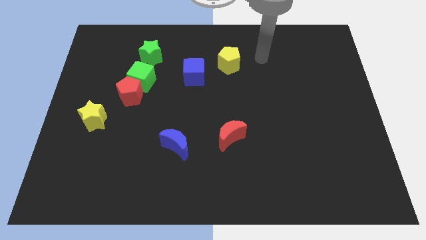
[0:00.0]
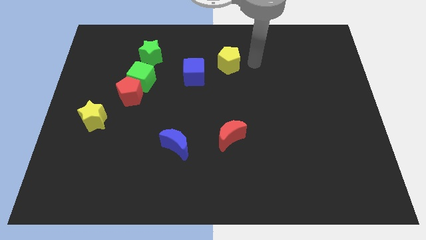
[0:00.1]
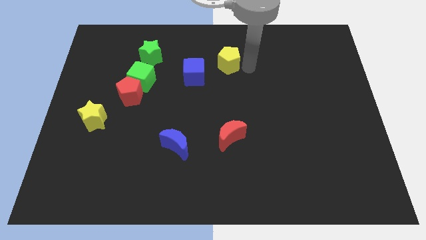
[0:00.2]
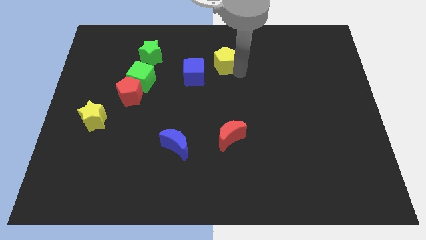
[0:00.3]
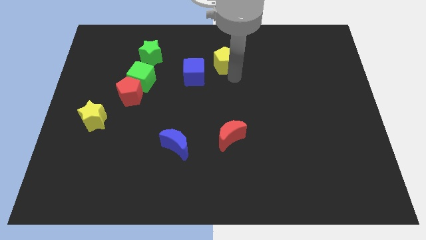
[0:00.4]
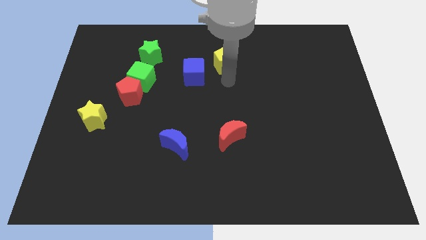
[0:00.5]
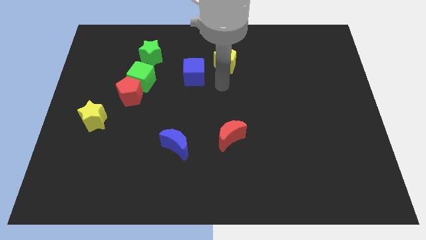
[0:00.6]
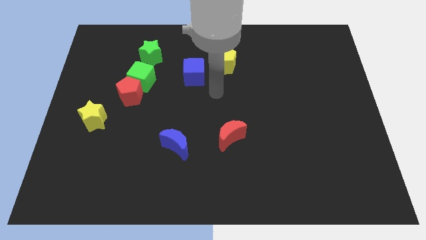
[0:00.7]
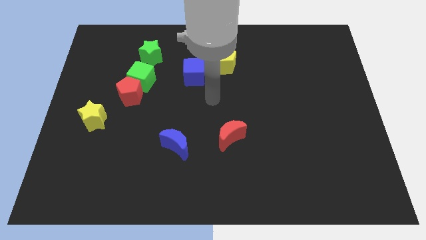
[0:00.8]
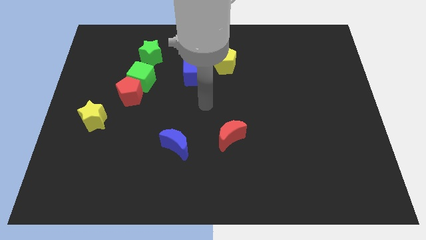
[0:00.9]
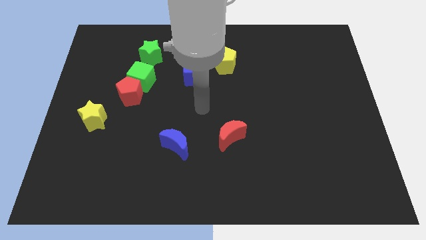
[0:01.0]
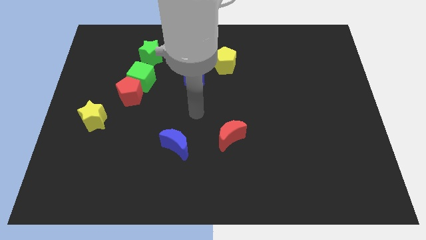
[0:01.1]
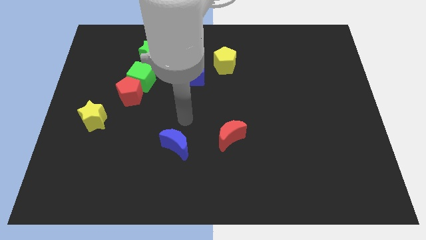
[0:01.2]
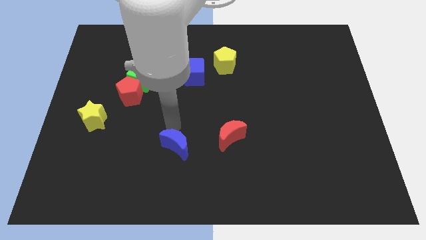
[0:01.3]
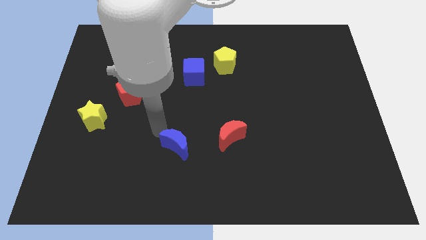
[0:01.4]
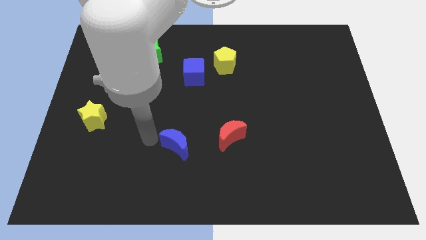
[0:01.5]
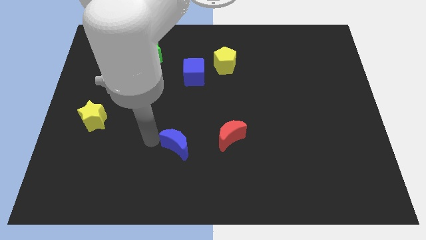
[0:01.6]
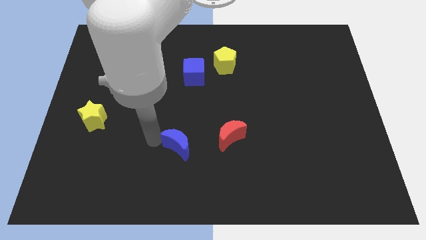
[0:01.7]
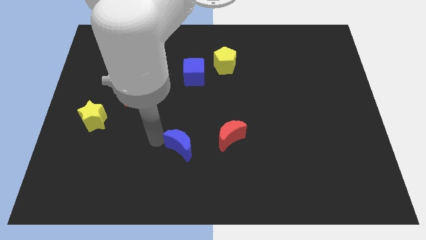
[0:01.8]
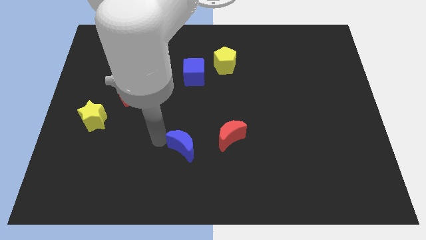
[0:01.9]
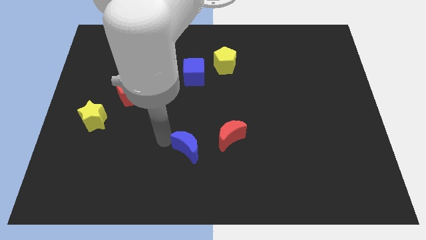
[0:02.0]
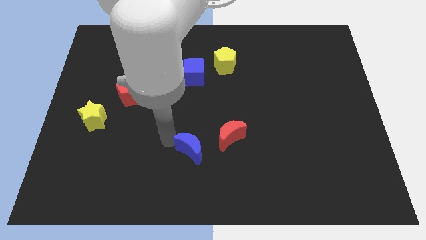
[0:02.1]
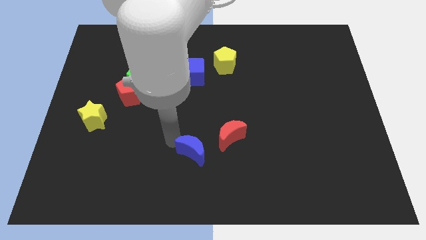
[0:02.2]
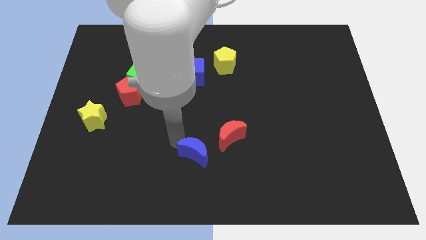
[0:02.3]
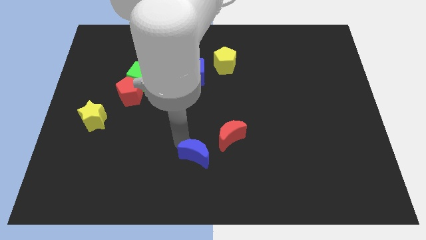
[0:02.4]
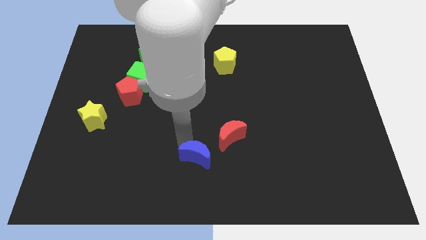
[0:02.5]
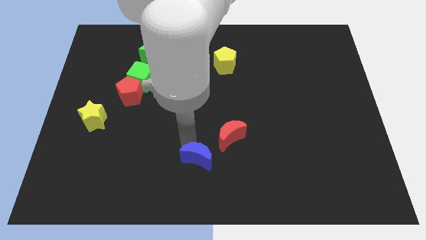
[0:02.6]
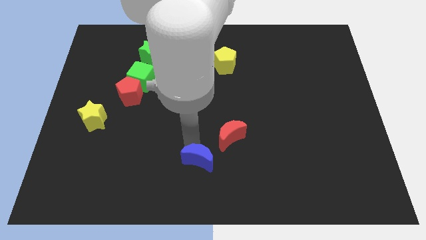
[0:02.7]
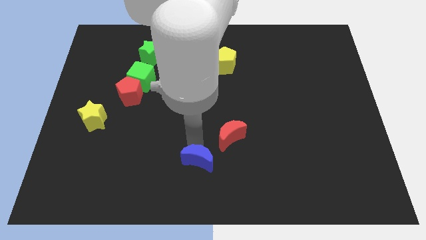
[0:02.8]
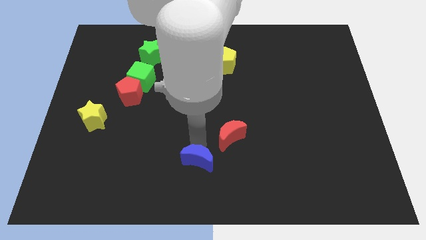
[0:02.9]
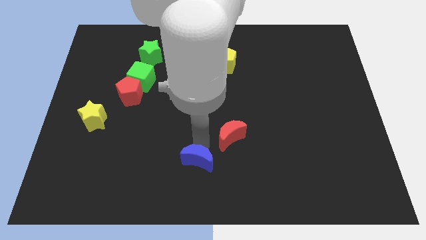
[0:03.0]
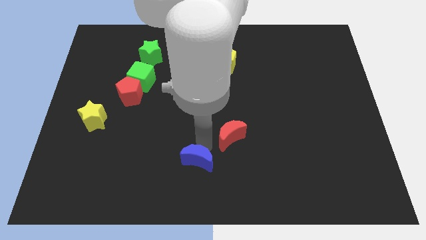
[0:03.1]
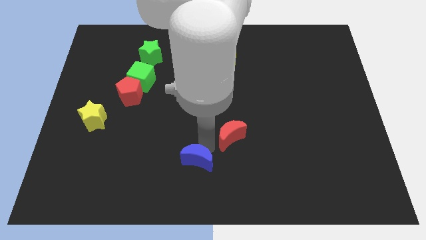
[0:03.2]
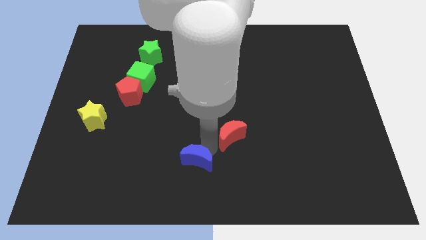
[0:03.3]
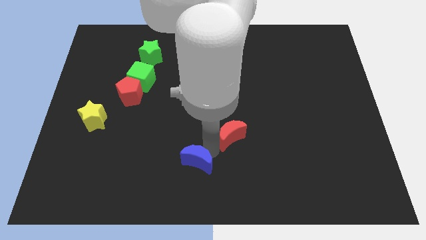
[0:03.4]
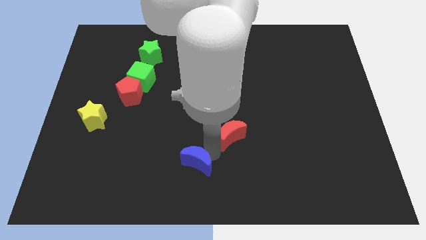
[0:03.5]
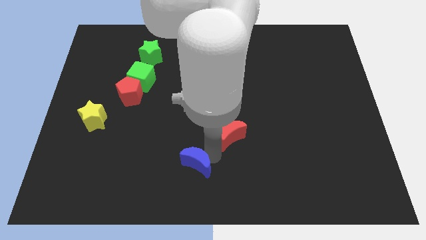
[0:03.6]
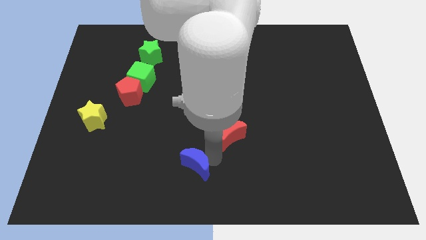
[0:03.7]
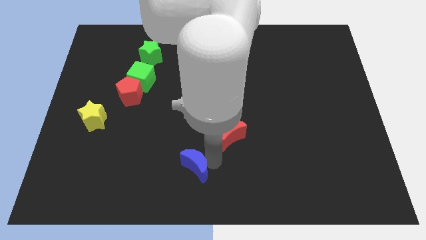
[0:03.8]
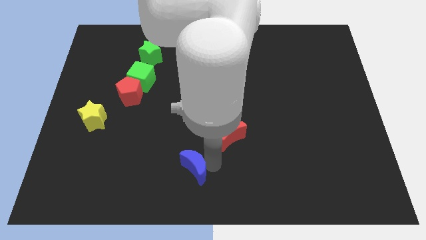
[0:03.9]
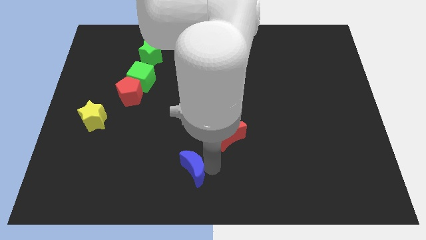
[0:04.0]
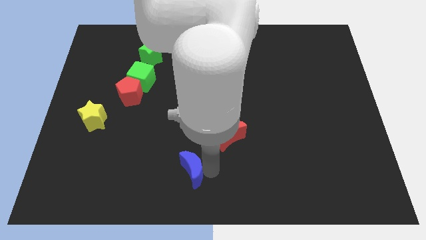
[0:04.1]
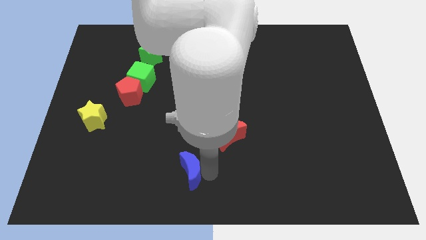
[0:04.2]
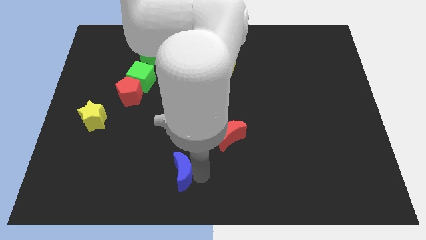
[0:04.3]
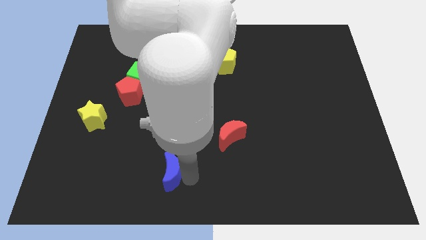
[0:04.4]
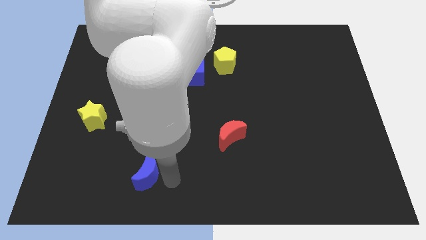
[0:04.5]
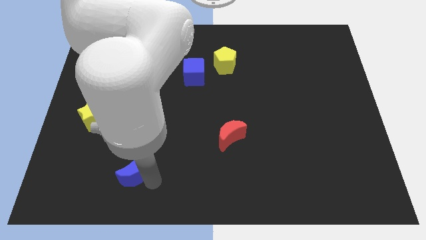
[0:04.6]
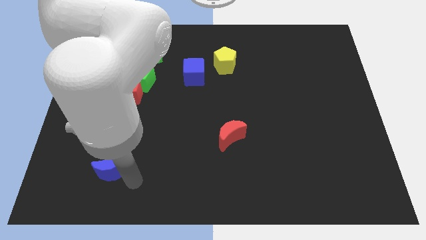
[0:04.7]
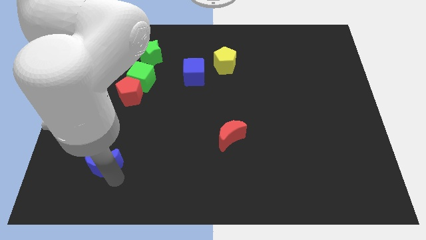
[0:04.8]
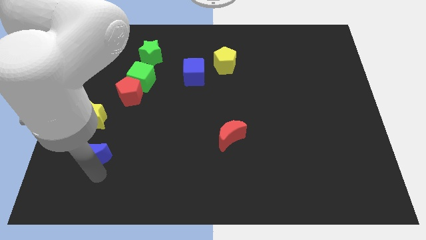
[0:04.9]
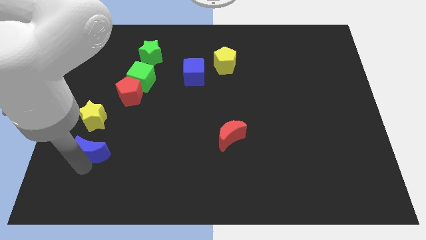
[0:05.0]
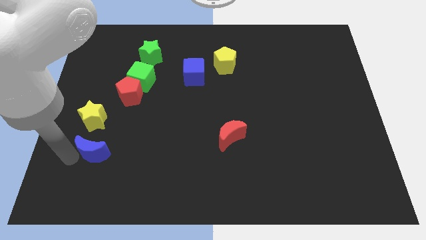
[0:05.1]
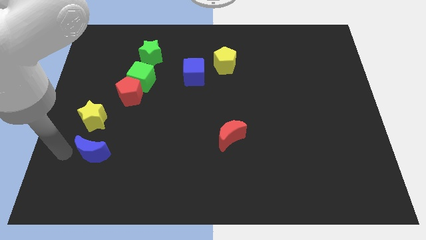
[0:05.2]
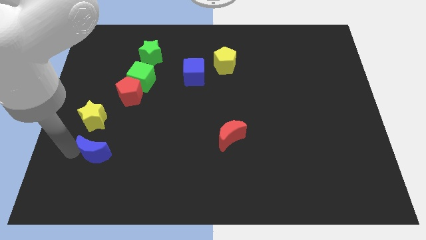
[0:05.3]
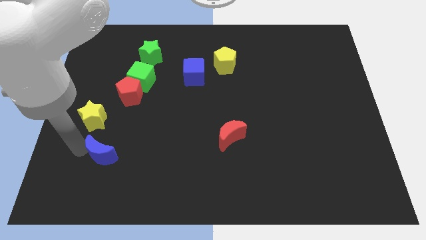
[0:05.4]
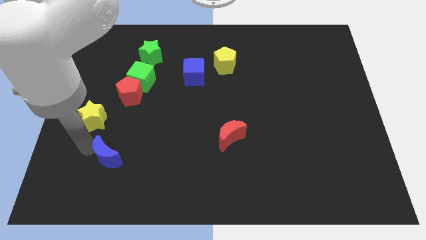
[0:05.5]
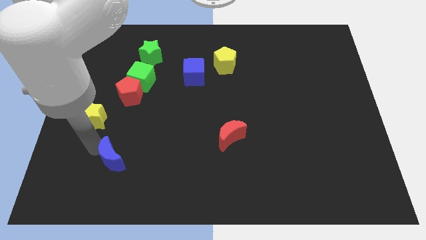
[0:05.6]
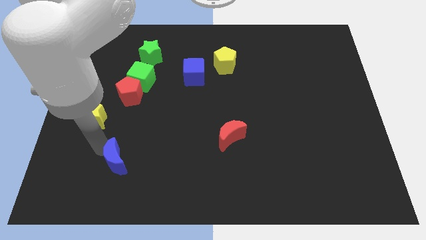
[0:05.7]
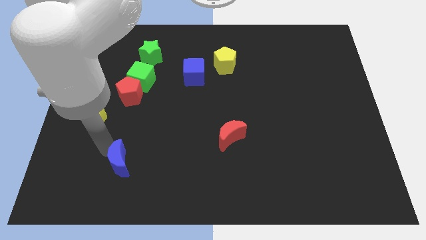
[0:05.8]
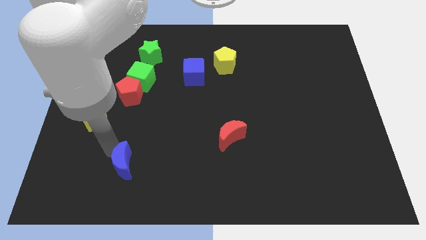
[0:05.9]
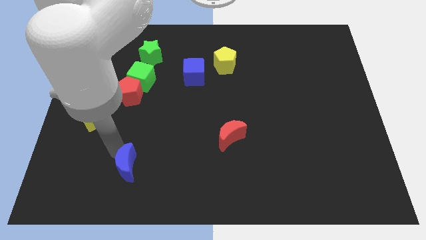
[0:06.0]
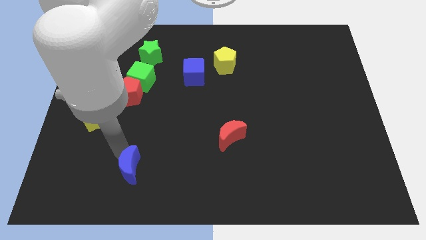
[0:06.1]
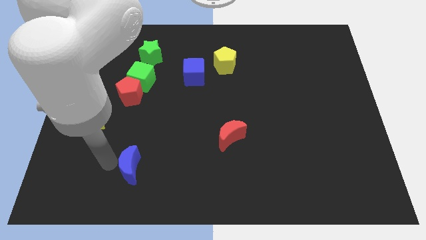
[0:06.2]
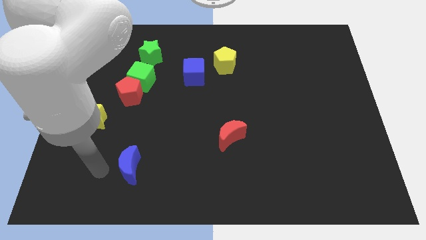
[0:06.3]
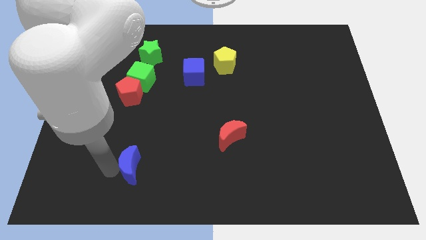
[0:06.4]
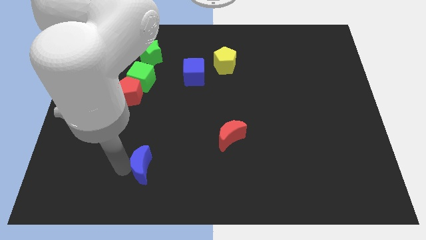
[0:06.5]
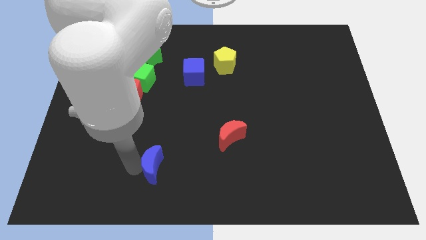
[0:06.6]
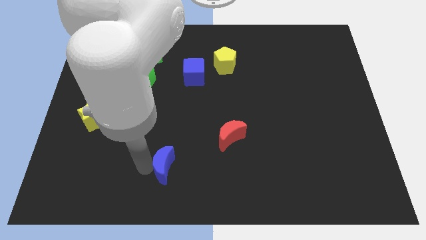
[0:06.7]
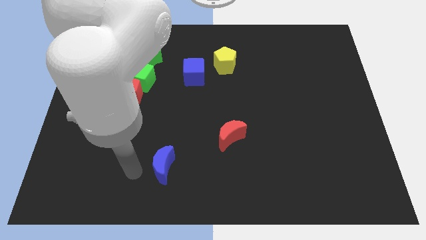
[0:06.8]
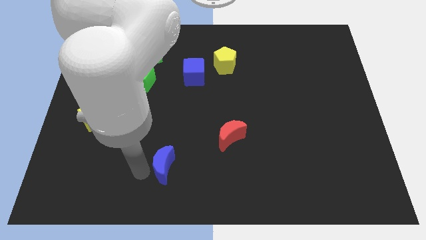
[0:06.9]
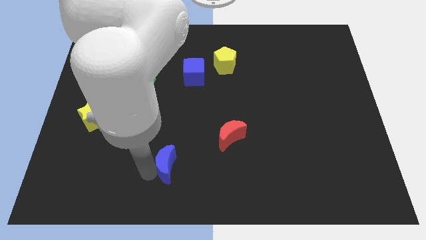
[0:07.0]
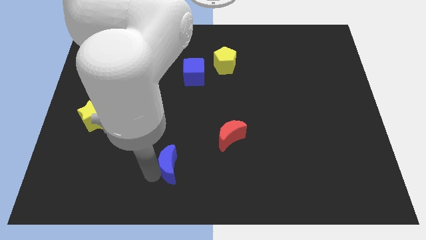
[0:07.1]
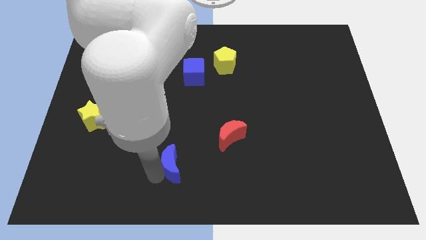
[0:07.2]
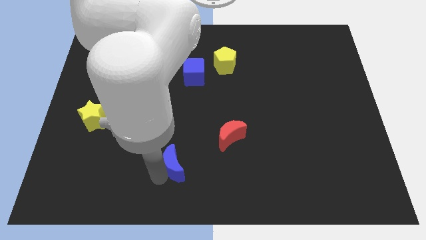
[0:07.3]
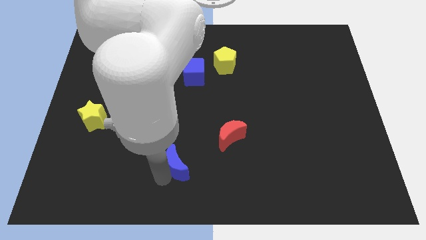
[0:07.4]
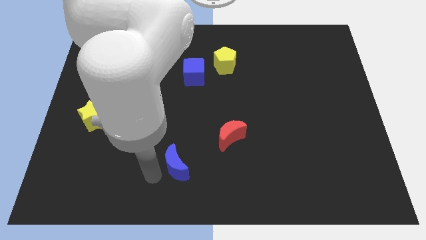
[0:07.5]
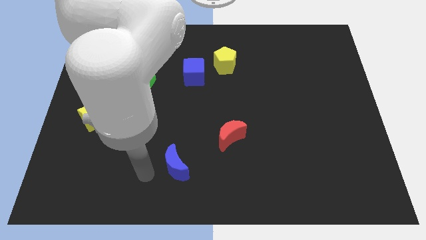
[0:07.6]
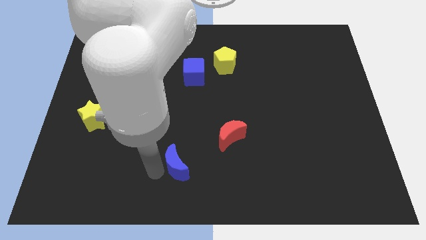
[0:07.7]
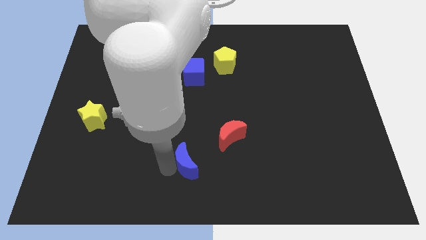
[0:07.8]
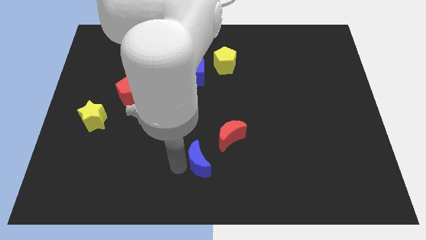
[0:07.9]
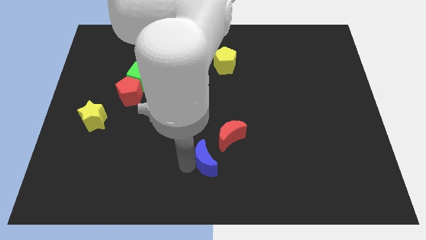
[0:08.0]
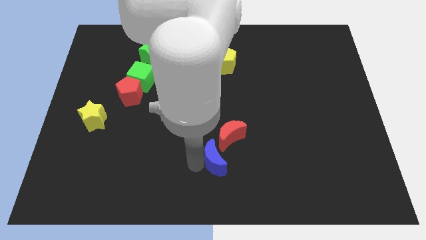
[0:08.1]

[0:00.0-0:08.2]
slide the blue moon to the right a little bit

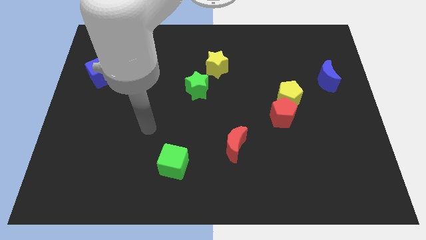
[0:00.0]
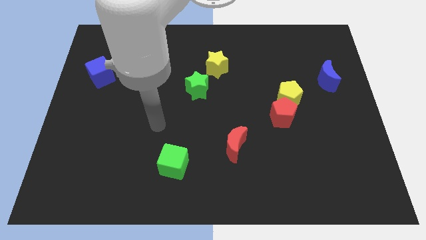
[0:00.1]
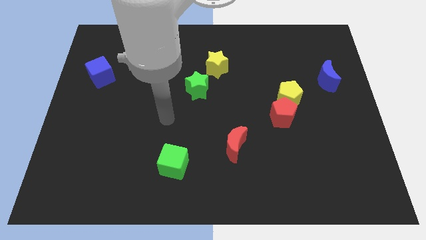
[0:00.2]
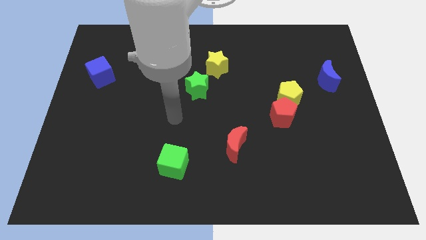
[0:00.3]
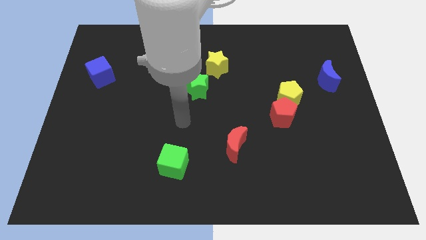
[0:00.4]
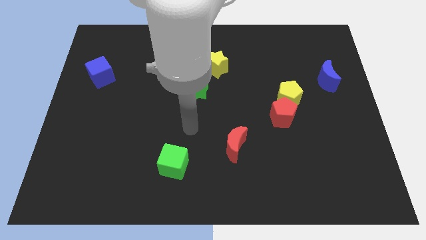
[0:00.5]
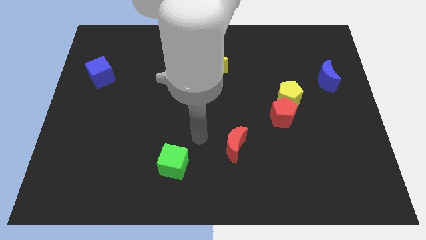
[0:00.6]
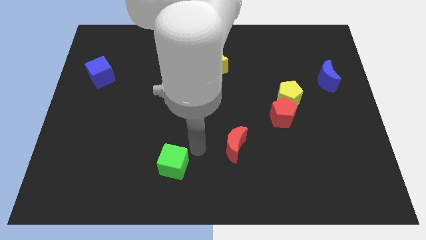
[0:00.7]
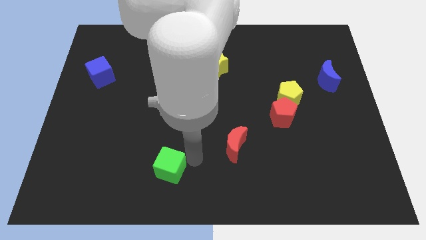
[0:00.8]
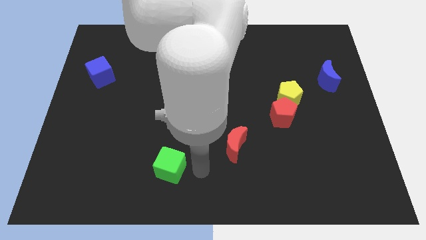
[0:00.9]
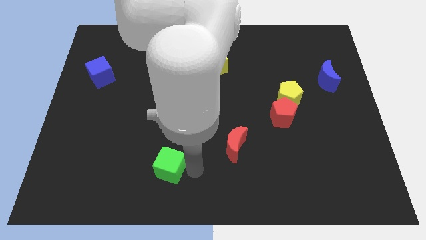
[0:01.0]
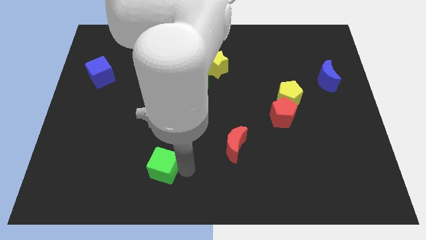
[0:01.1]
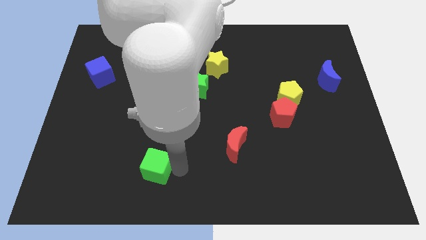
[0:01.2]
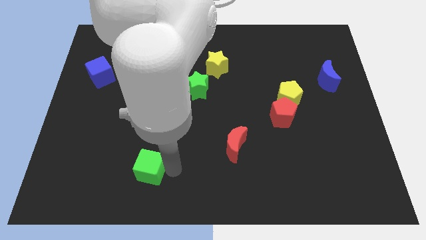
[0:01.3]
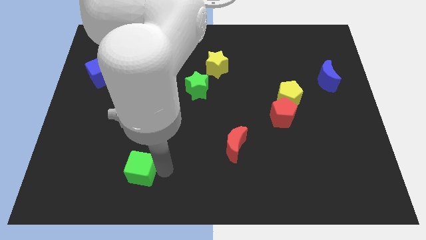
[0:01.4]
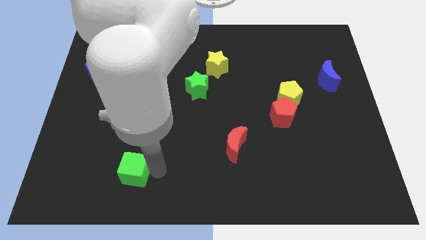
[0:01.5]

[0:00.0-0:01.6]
move the green cube to the left somewhat
